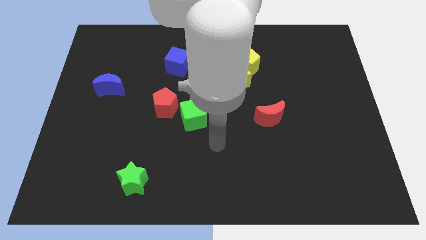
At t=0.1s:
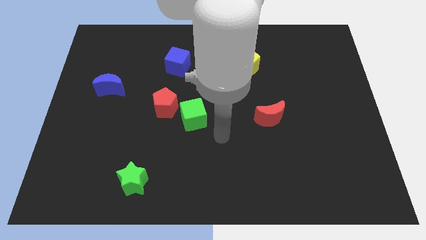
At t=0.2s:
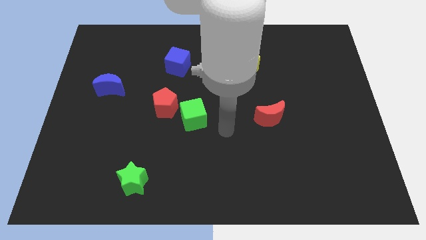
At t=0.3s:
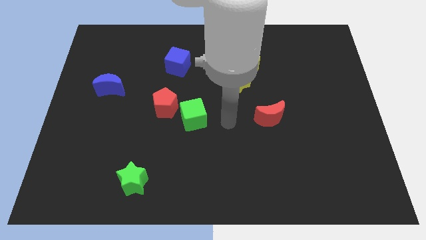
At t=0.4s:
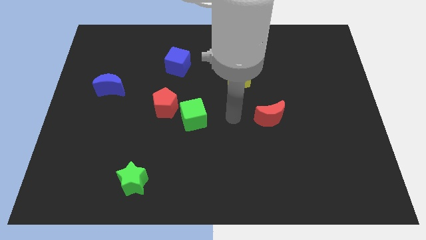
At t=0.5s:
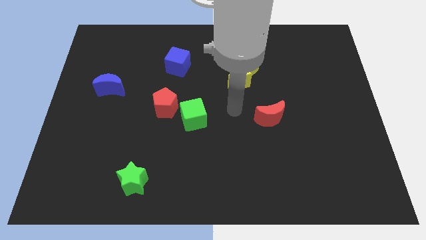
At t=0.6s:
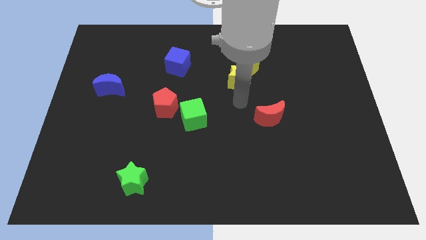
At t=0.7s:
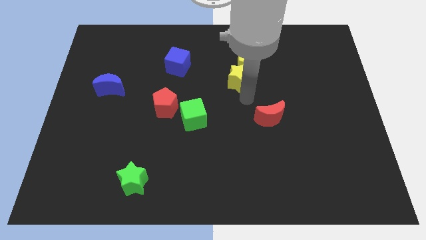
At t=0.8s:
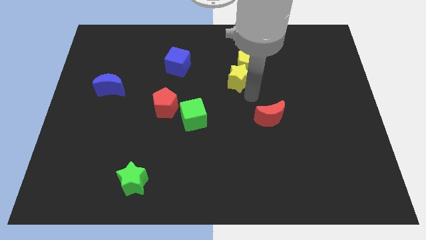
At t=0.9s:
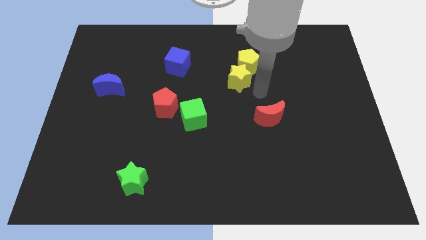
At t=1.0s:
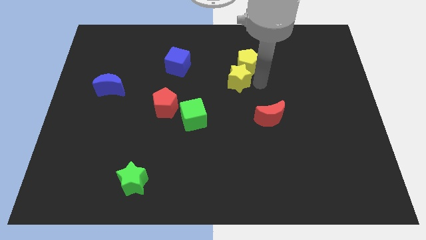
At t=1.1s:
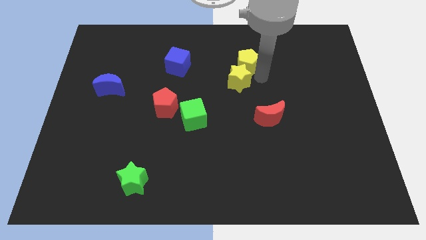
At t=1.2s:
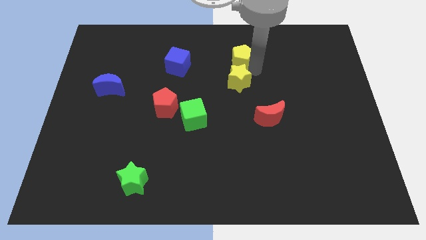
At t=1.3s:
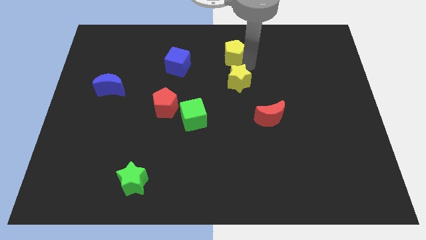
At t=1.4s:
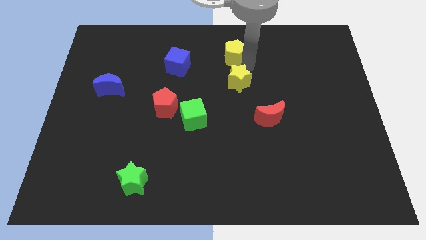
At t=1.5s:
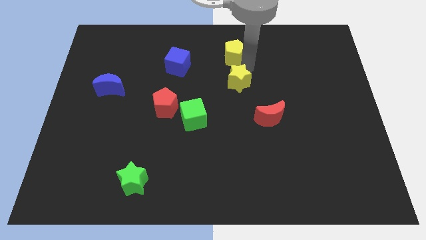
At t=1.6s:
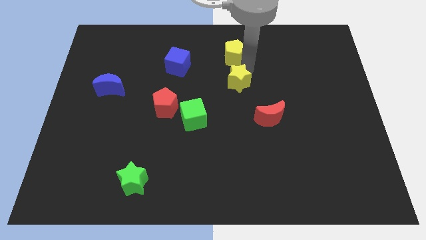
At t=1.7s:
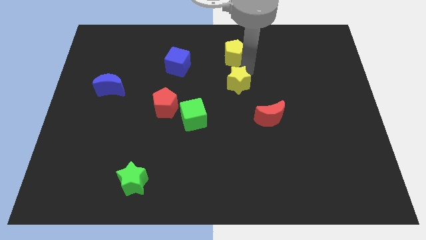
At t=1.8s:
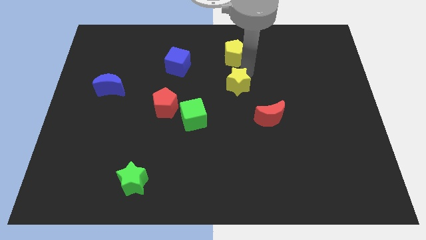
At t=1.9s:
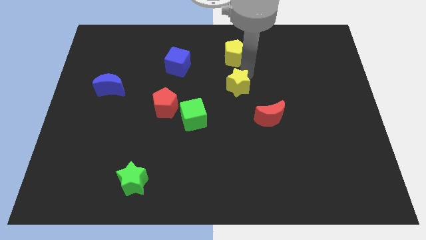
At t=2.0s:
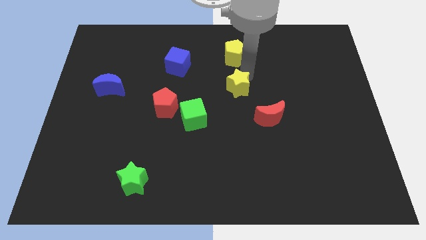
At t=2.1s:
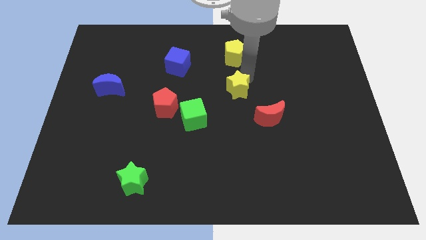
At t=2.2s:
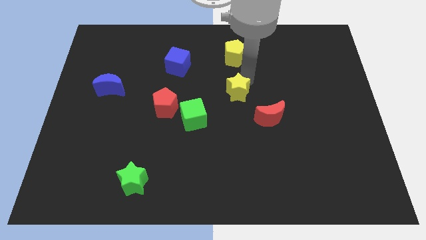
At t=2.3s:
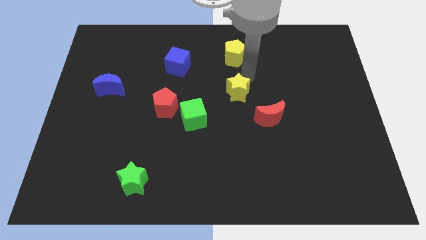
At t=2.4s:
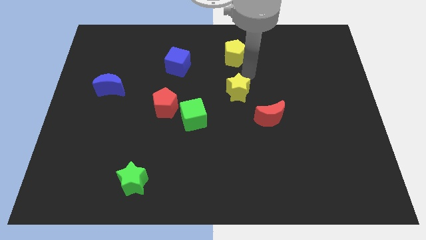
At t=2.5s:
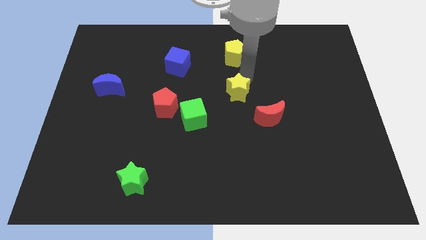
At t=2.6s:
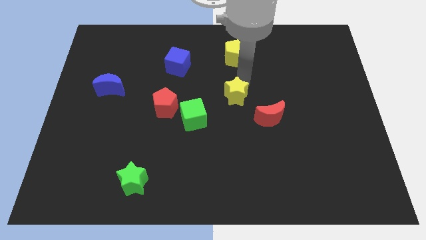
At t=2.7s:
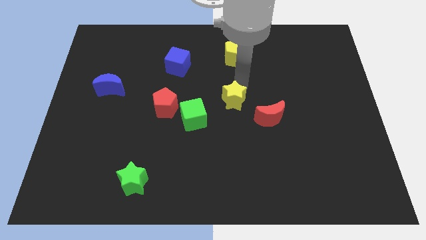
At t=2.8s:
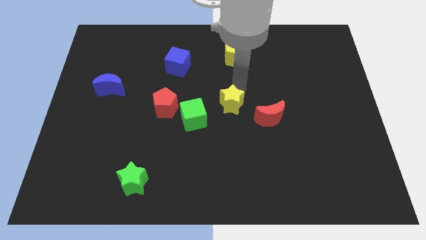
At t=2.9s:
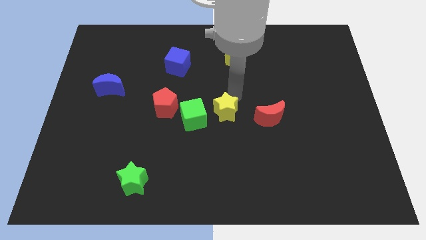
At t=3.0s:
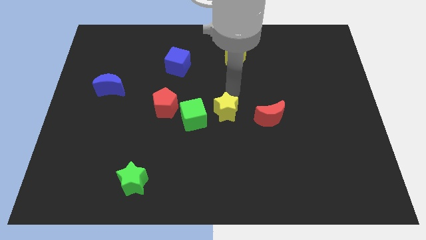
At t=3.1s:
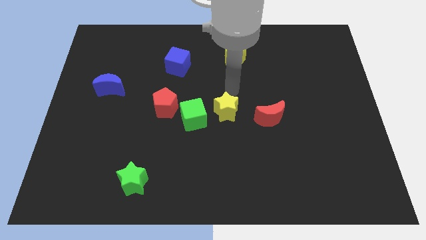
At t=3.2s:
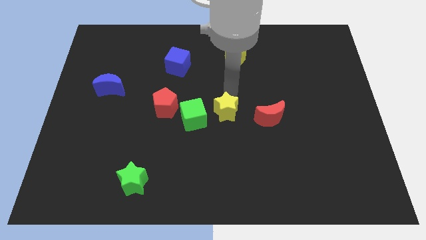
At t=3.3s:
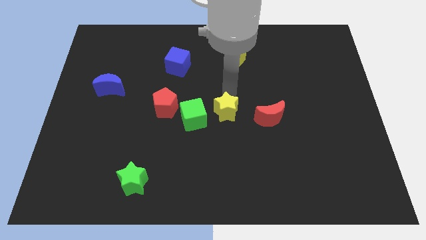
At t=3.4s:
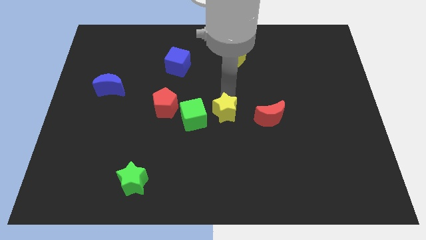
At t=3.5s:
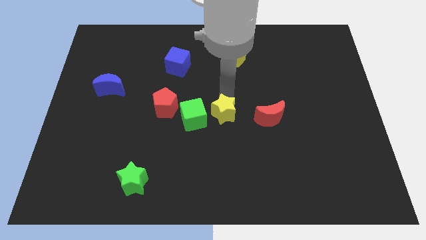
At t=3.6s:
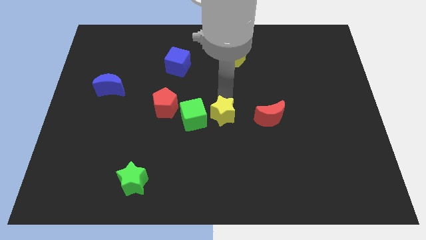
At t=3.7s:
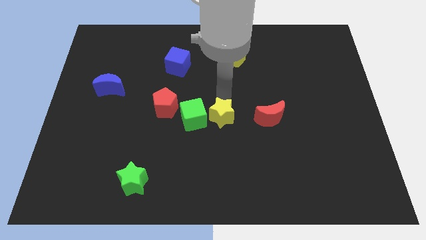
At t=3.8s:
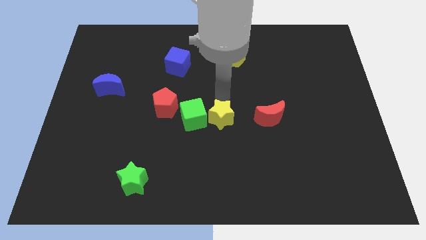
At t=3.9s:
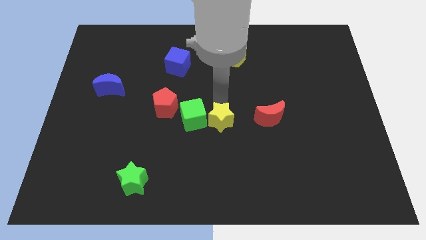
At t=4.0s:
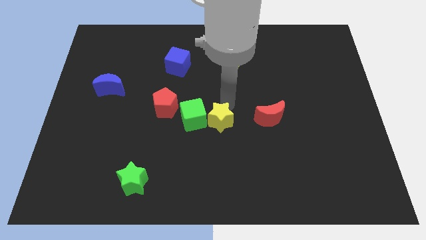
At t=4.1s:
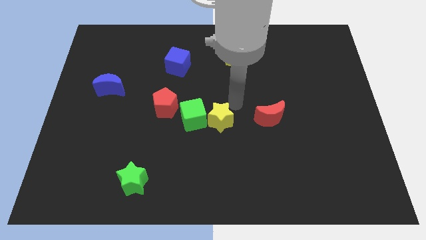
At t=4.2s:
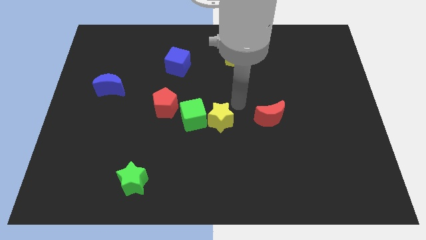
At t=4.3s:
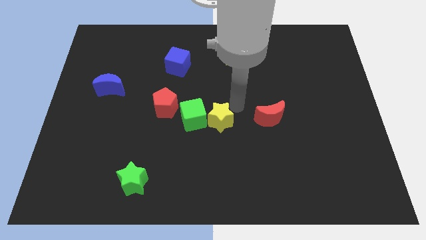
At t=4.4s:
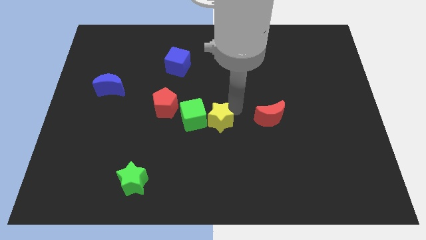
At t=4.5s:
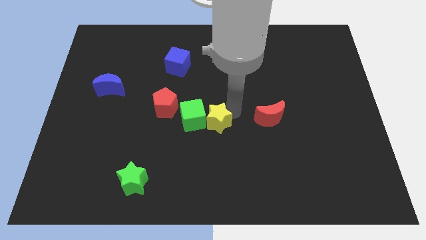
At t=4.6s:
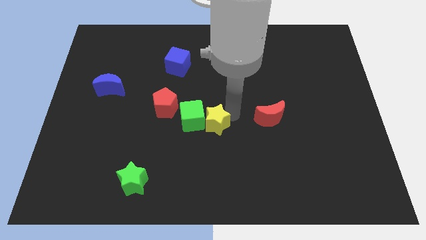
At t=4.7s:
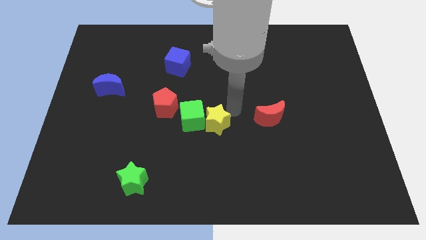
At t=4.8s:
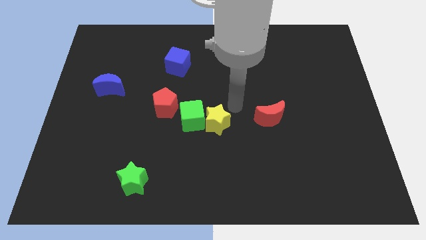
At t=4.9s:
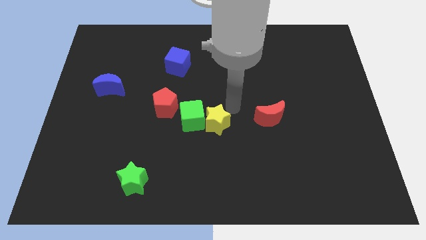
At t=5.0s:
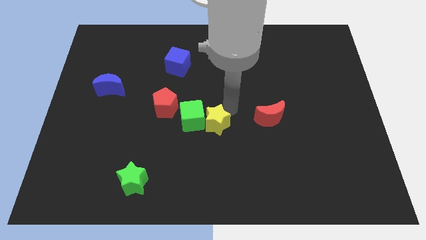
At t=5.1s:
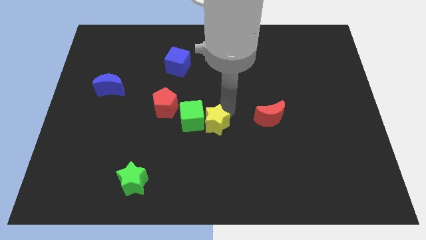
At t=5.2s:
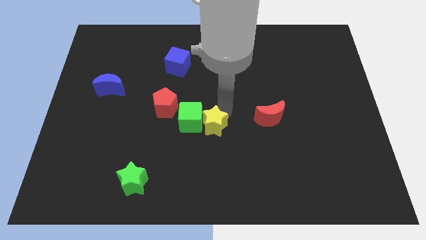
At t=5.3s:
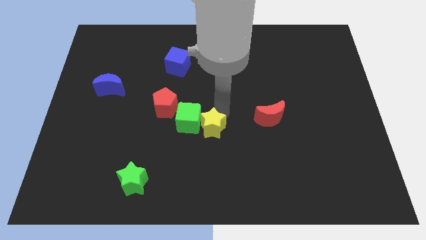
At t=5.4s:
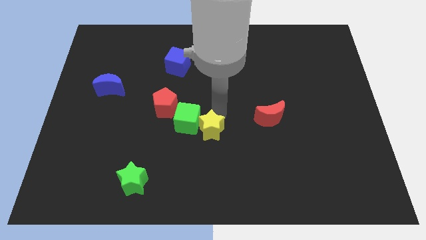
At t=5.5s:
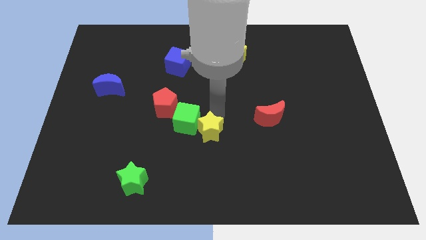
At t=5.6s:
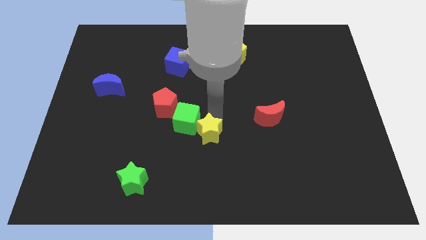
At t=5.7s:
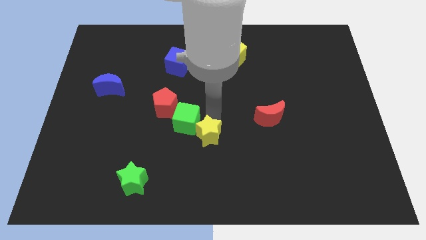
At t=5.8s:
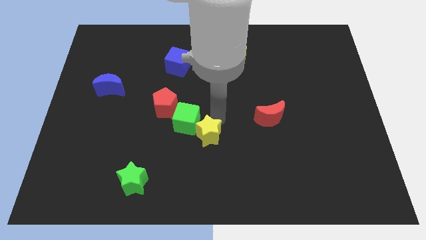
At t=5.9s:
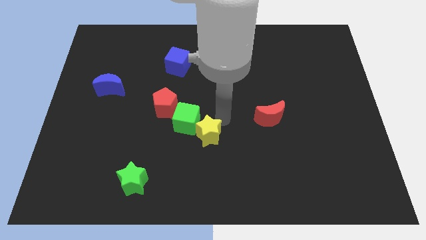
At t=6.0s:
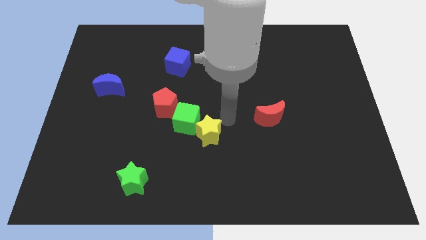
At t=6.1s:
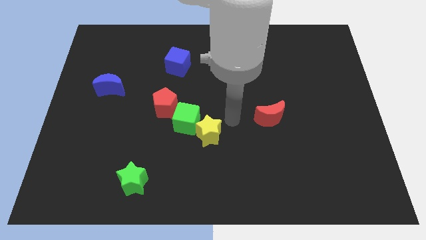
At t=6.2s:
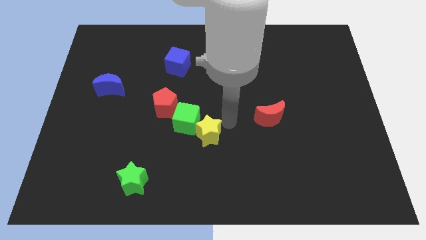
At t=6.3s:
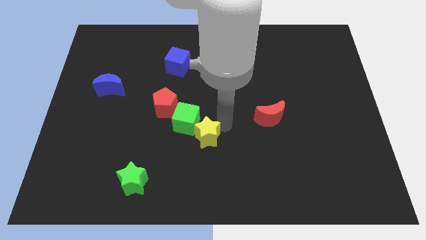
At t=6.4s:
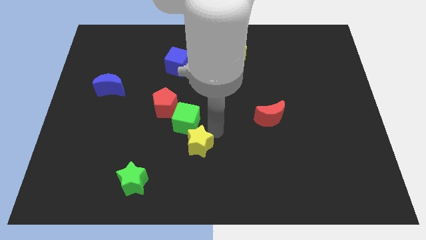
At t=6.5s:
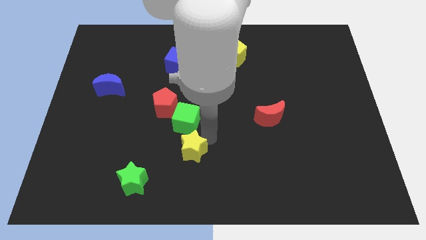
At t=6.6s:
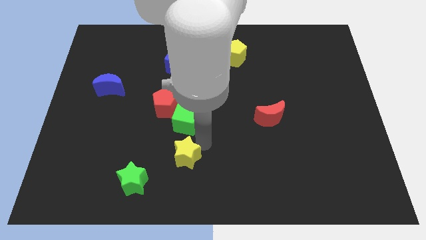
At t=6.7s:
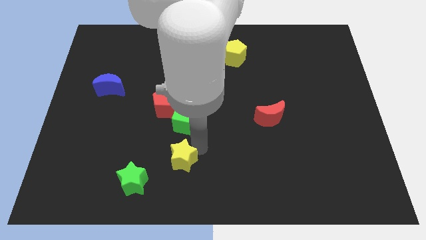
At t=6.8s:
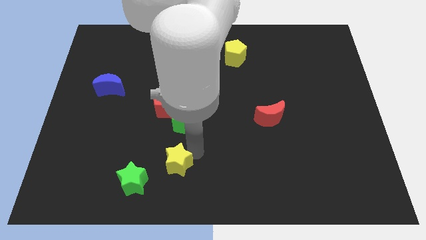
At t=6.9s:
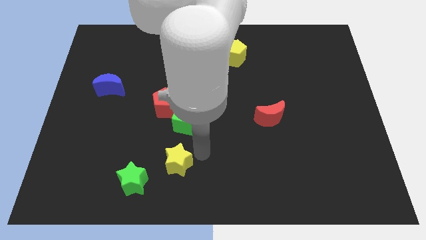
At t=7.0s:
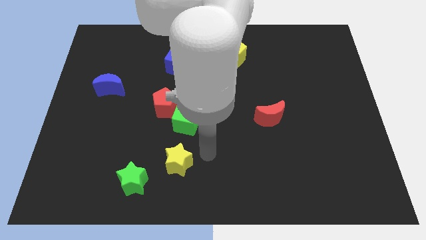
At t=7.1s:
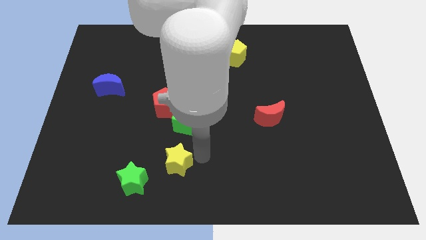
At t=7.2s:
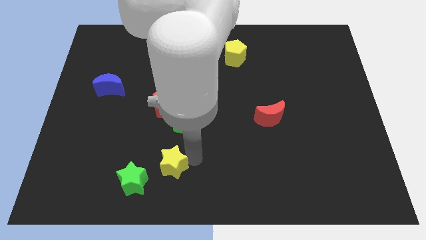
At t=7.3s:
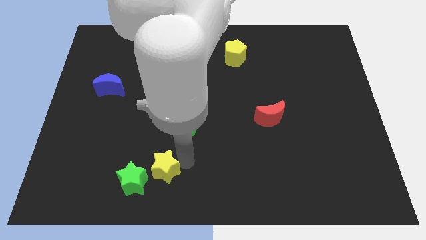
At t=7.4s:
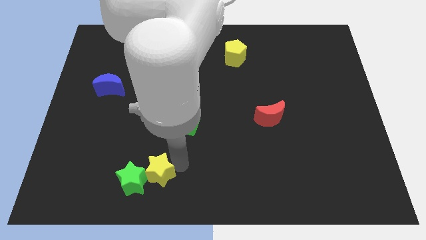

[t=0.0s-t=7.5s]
put the yellow star next to the green star
